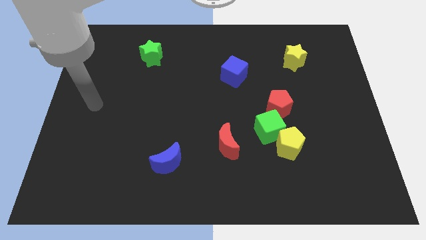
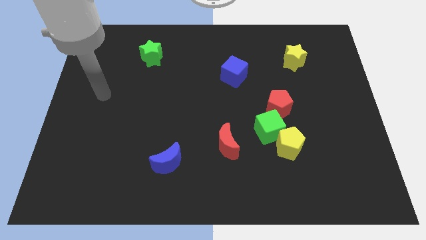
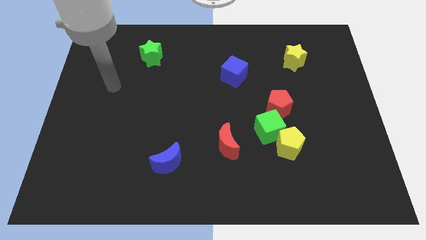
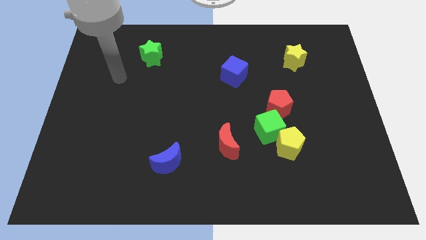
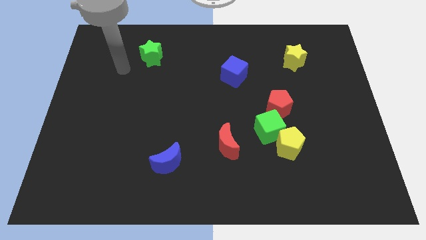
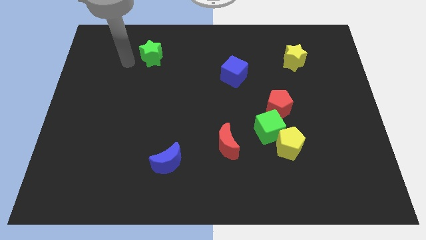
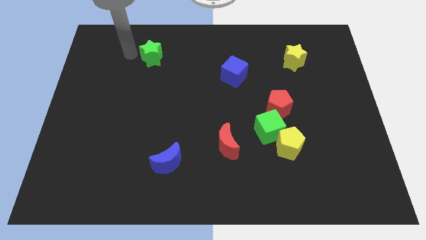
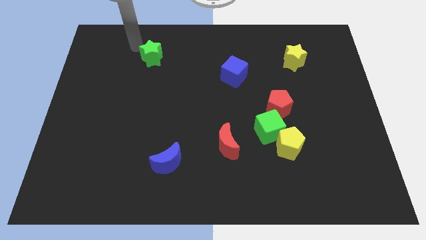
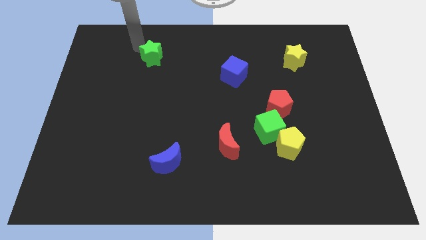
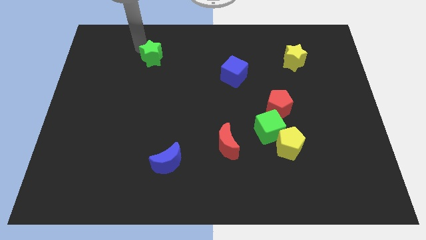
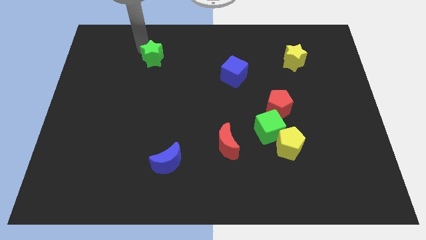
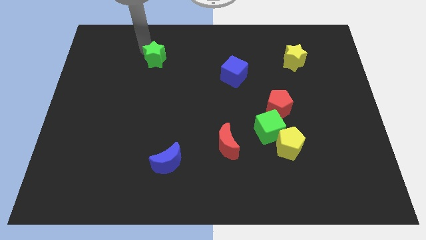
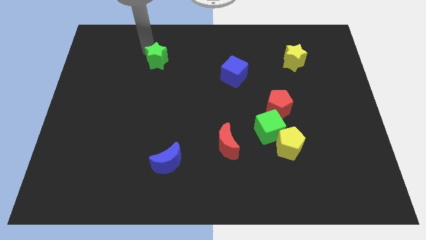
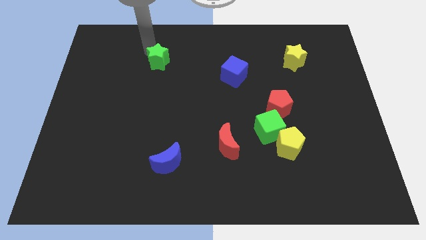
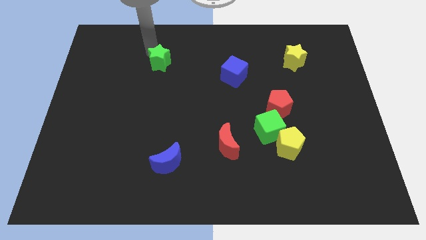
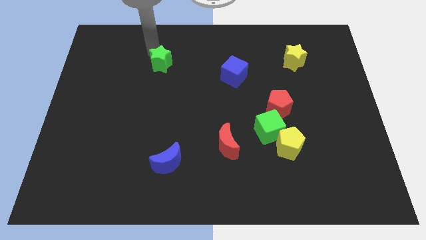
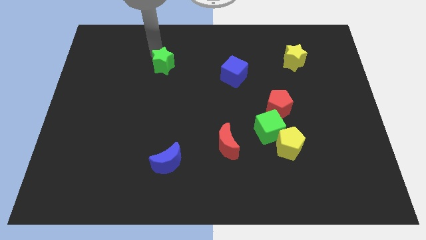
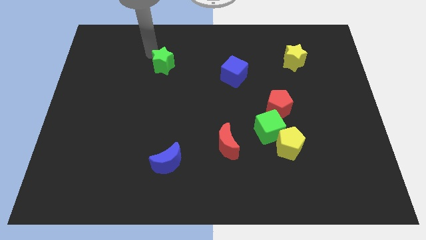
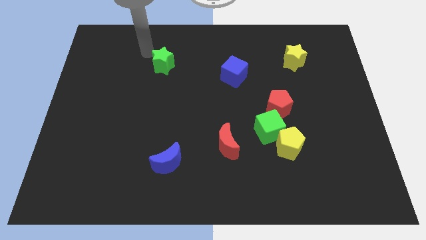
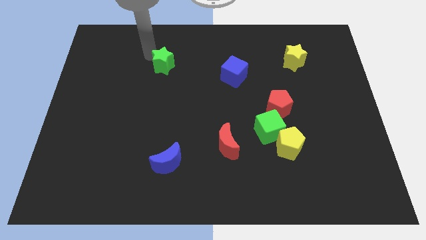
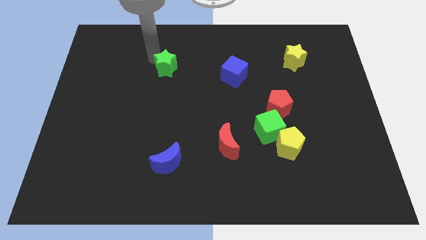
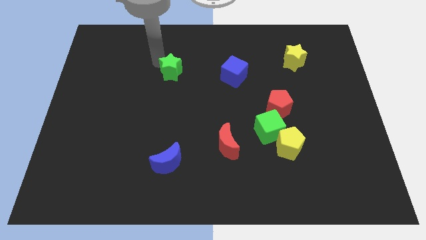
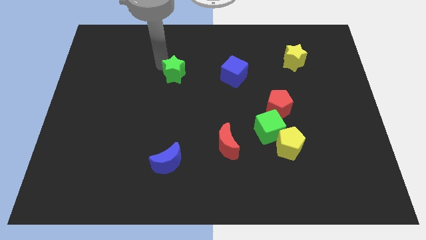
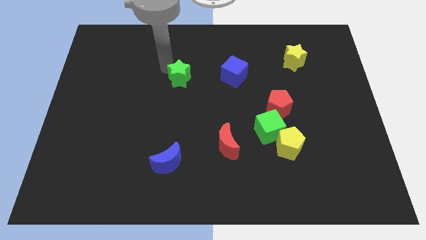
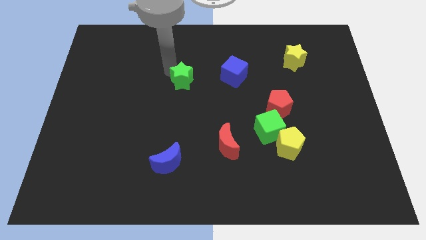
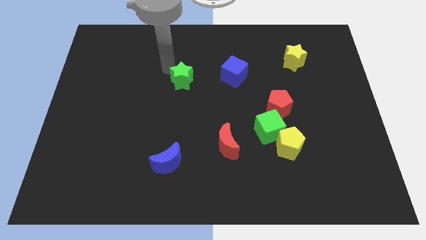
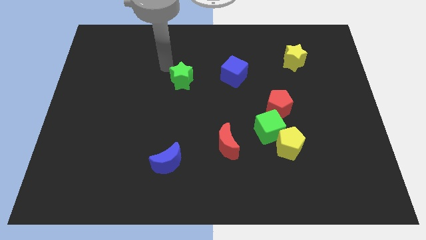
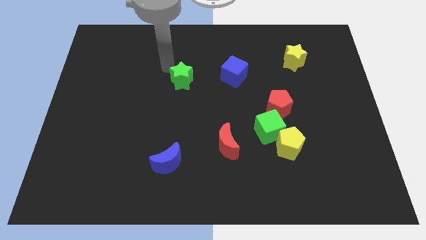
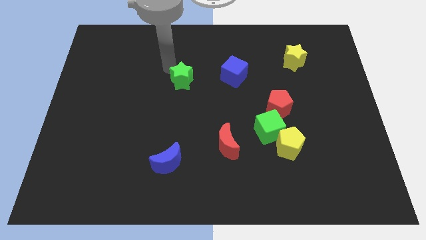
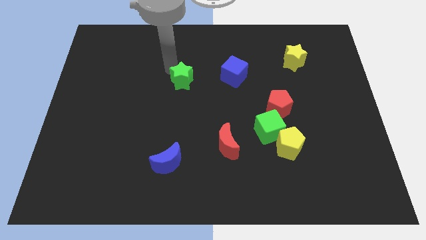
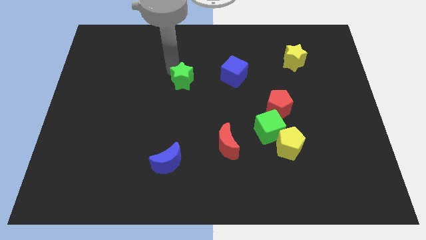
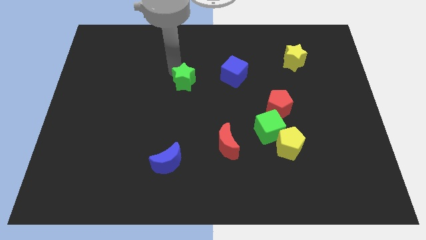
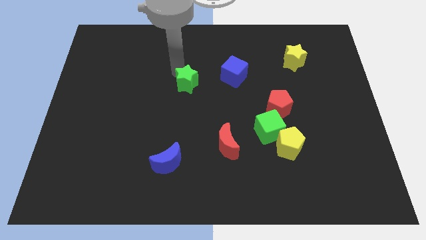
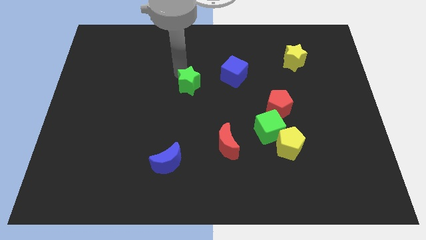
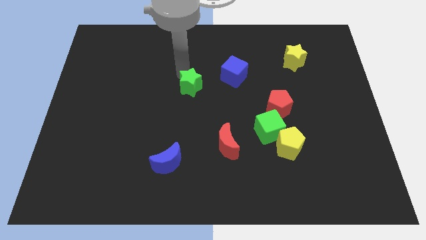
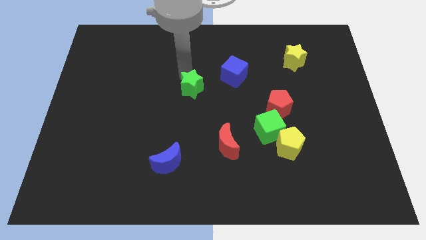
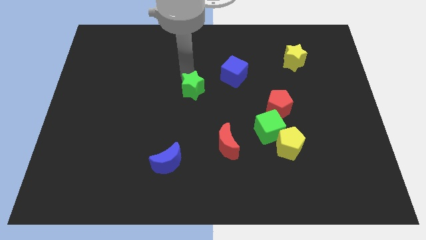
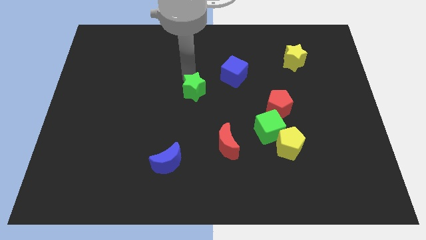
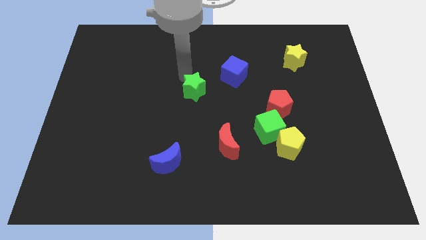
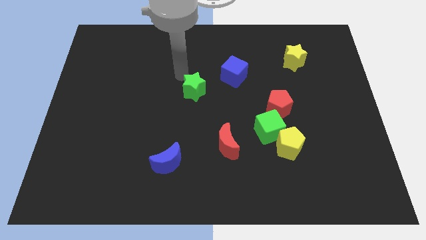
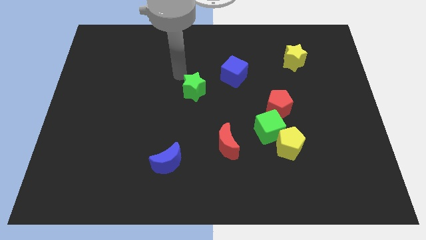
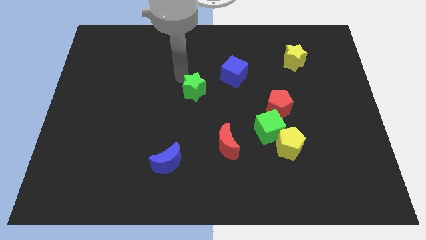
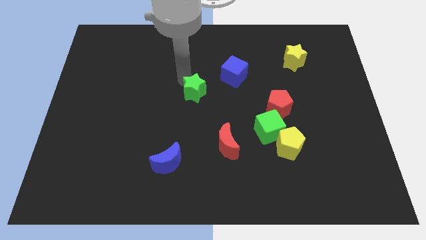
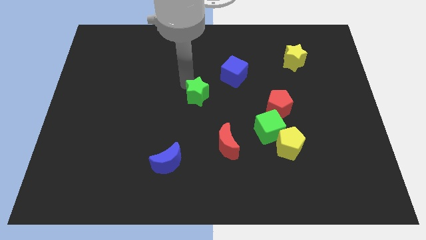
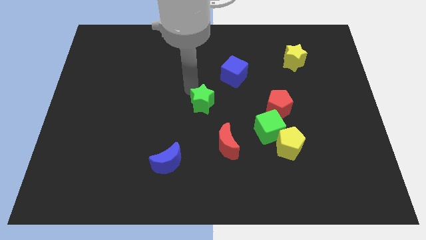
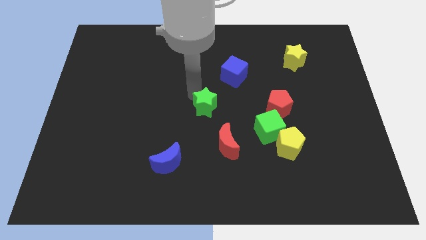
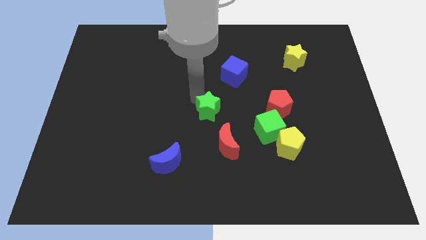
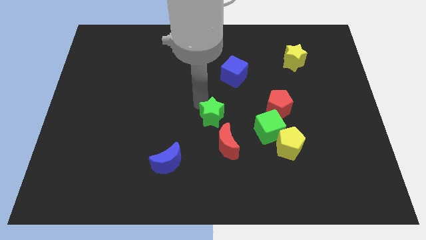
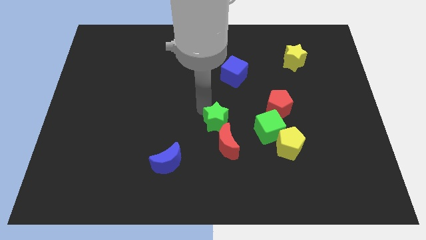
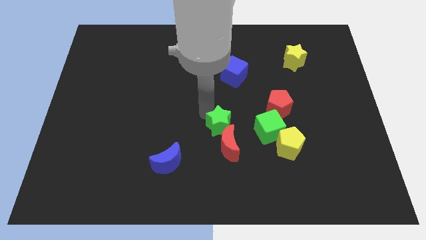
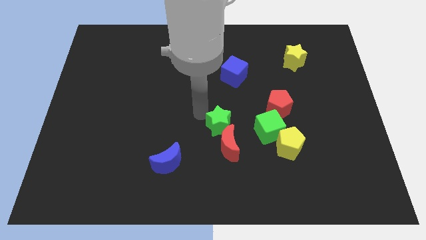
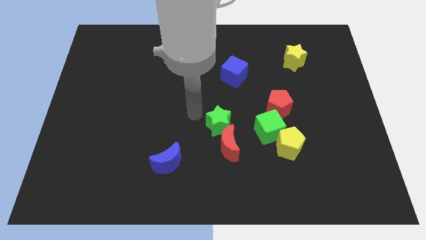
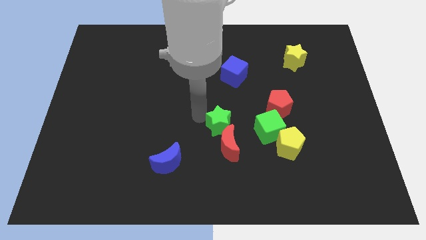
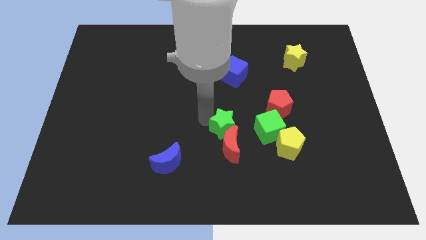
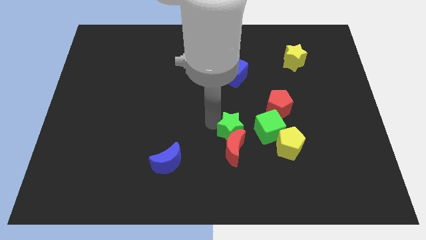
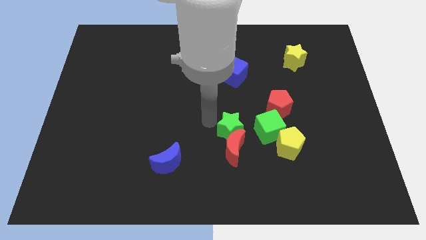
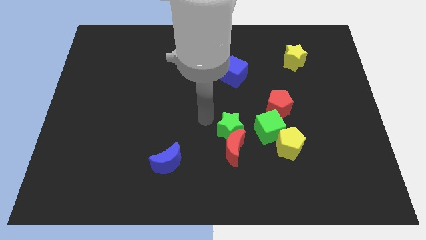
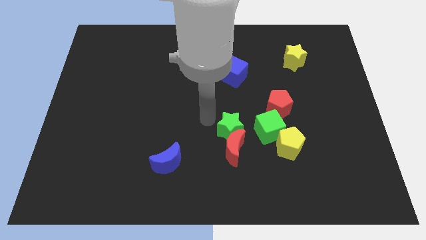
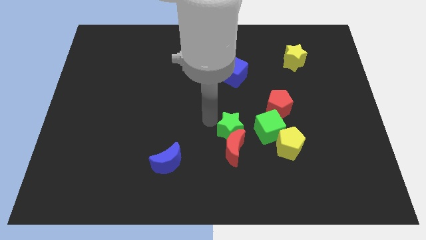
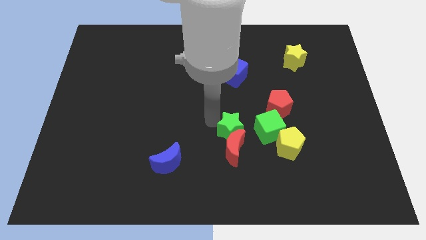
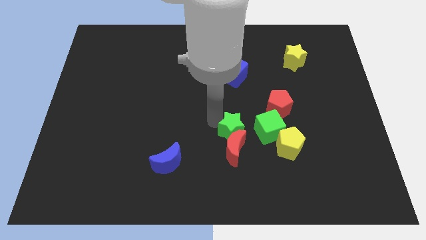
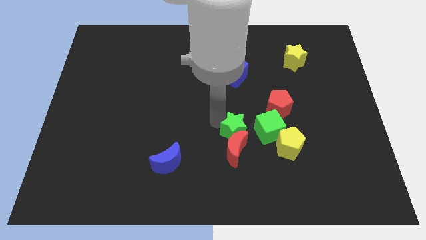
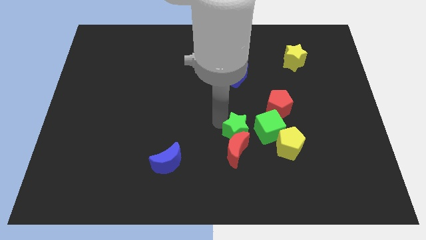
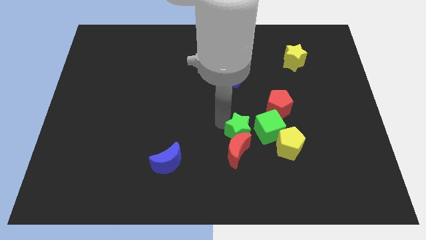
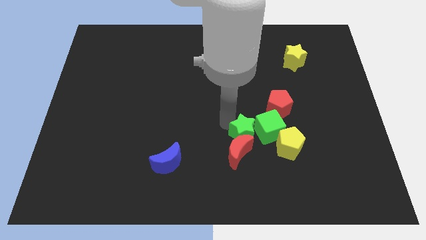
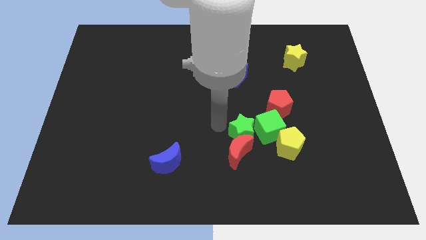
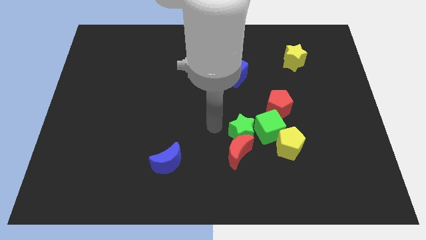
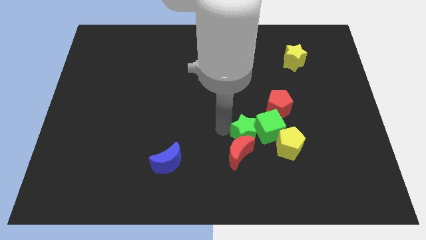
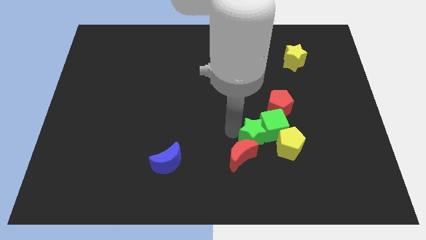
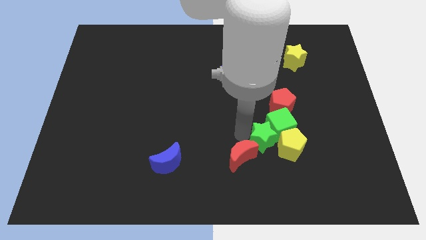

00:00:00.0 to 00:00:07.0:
put the green star to the yellow pentagon

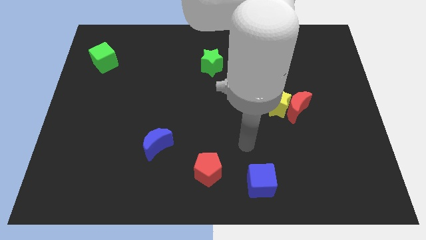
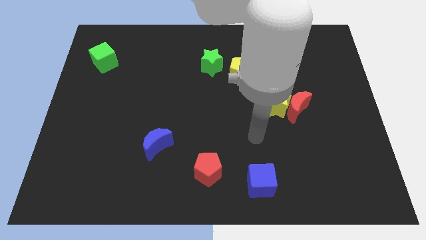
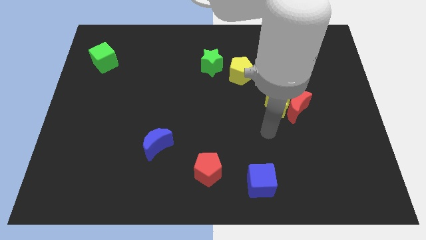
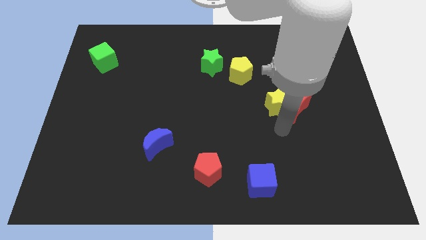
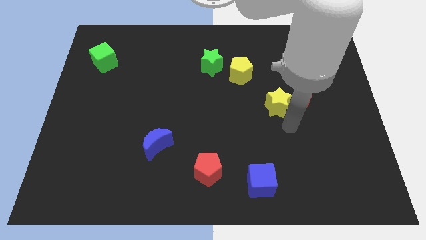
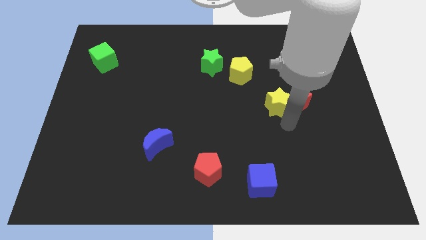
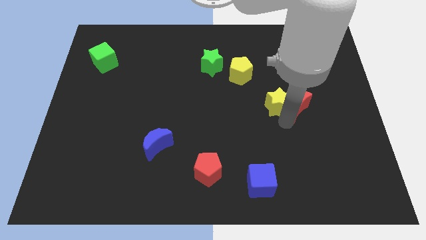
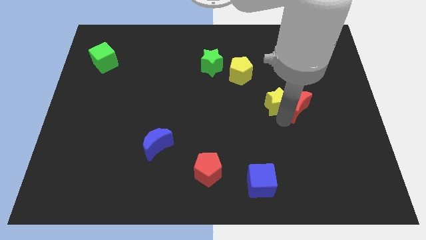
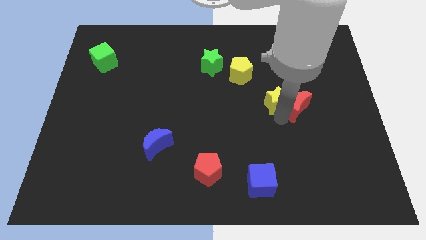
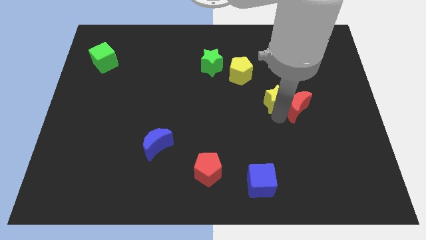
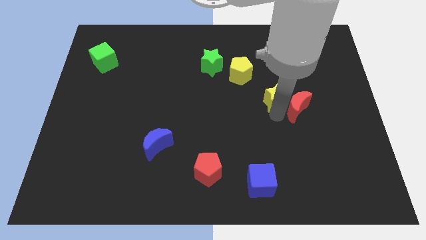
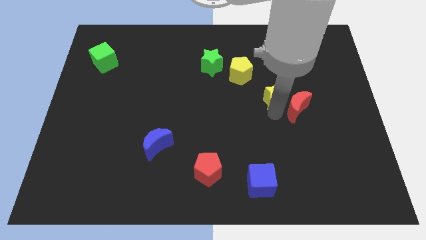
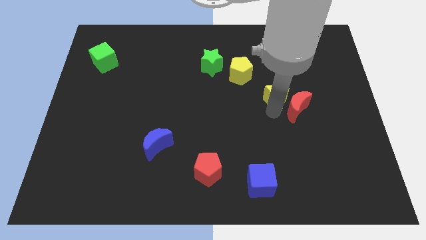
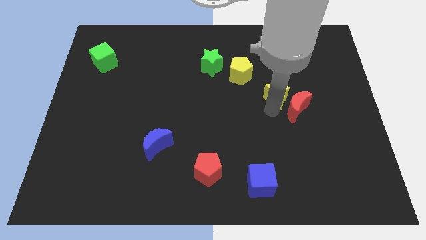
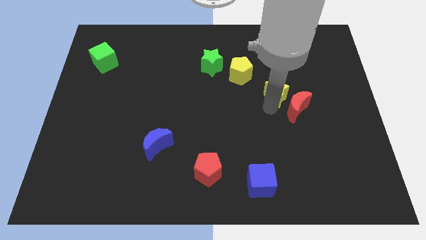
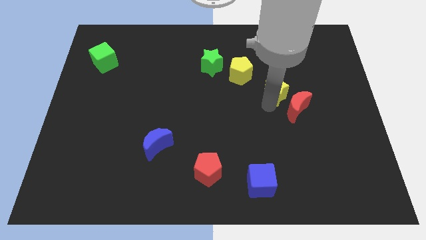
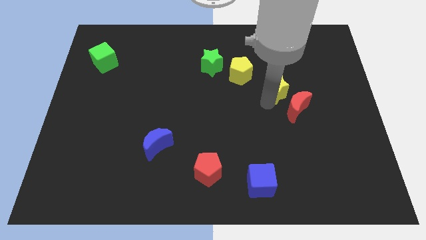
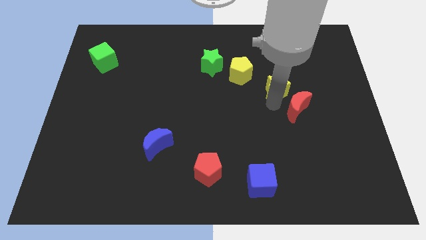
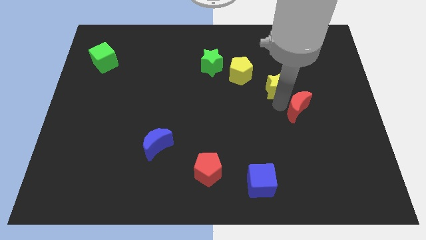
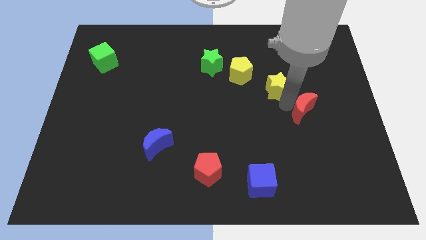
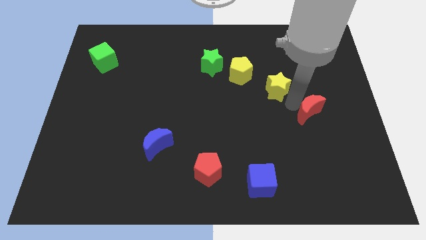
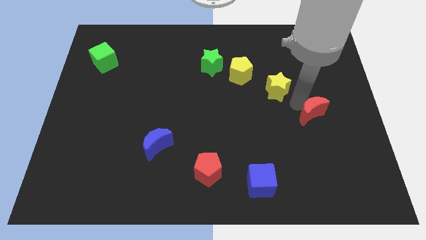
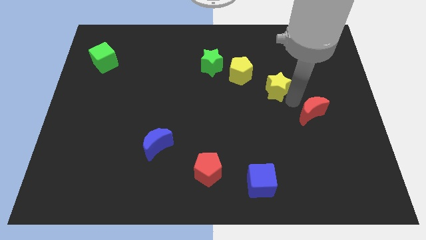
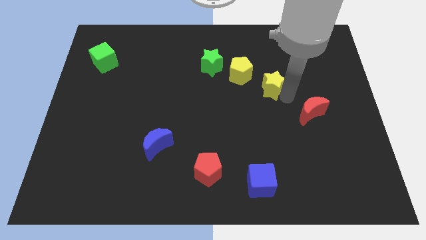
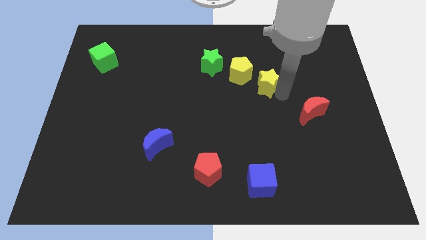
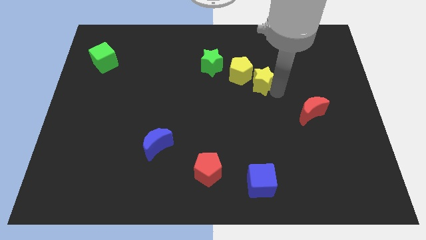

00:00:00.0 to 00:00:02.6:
push the yellow star to the yellow pentagon
